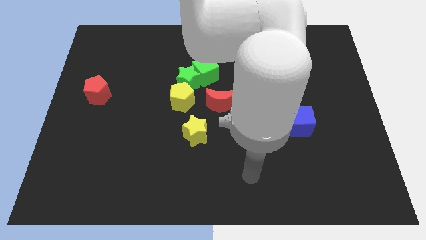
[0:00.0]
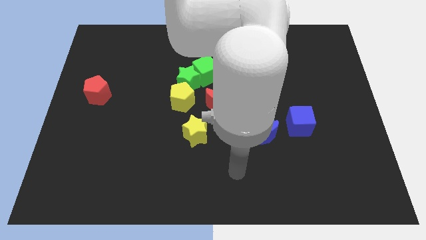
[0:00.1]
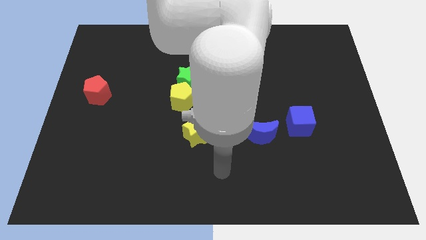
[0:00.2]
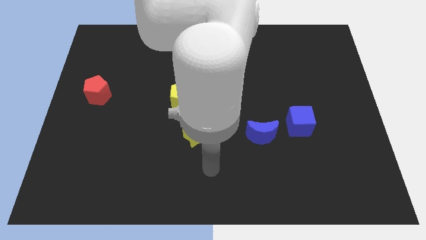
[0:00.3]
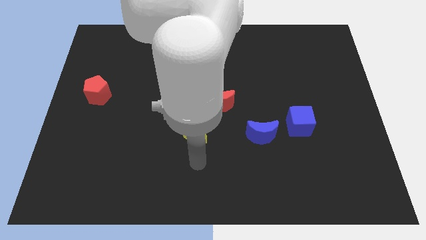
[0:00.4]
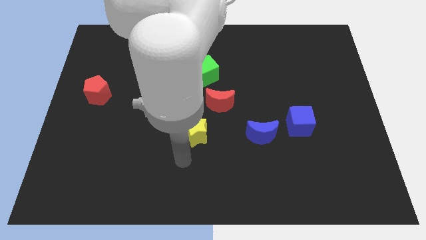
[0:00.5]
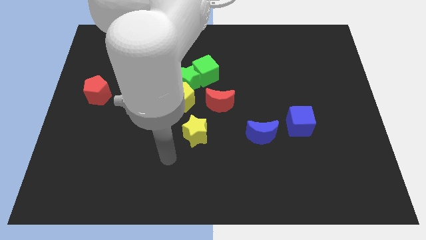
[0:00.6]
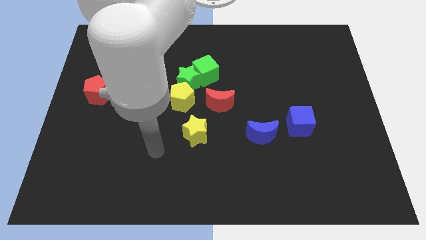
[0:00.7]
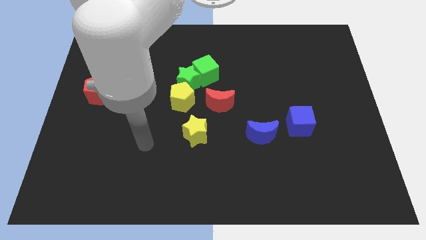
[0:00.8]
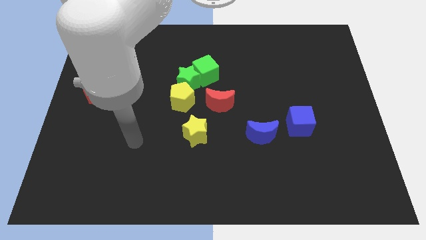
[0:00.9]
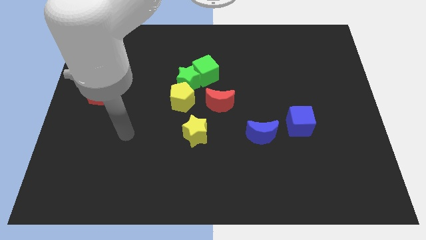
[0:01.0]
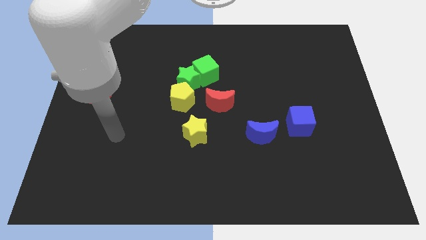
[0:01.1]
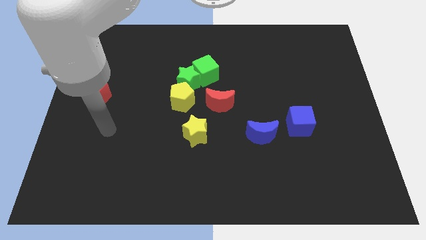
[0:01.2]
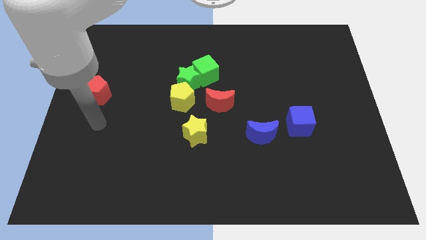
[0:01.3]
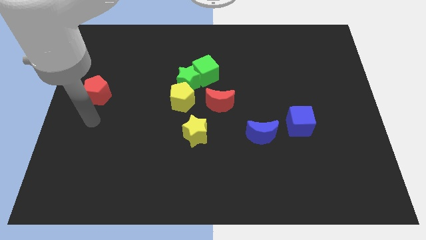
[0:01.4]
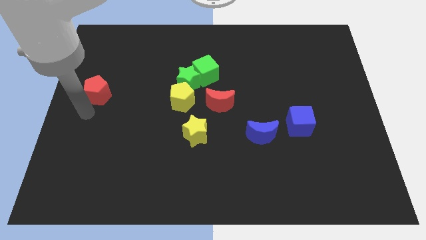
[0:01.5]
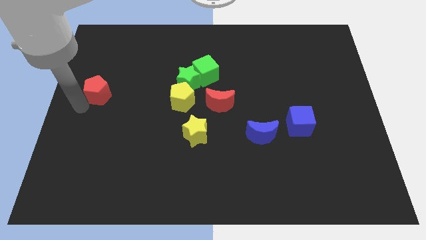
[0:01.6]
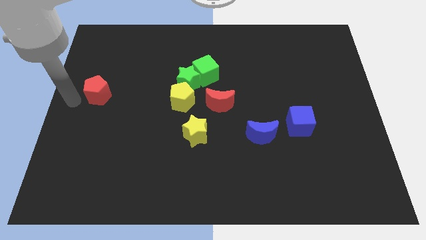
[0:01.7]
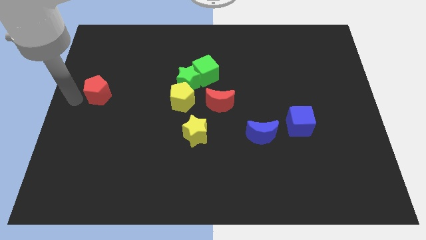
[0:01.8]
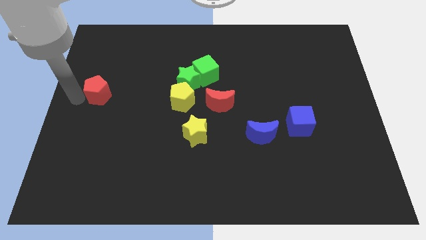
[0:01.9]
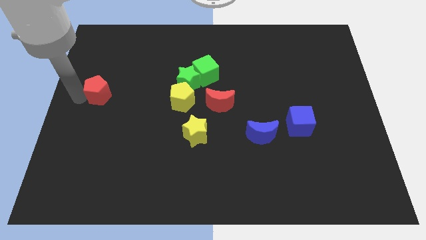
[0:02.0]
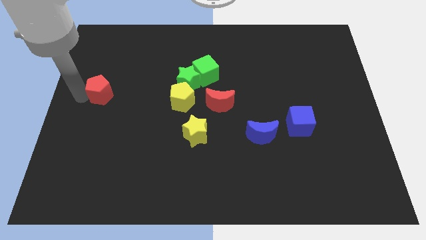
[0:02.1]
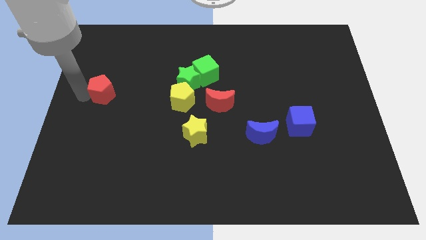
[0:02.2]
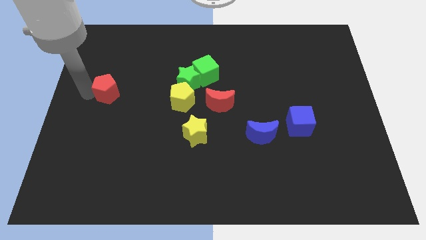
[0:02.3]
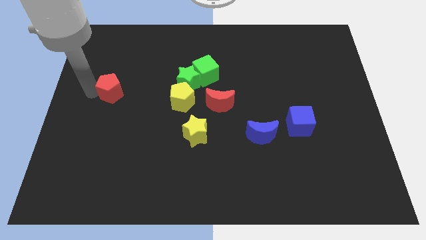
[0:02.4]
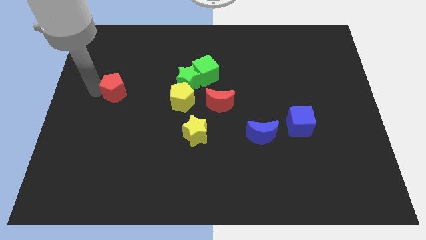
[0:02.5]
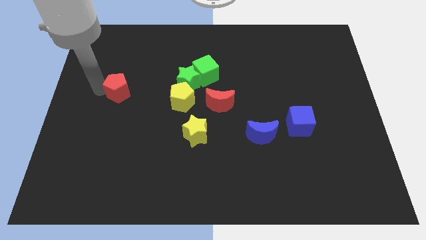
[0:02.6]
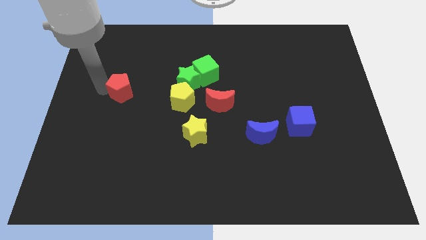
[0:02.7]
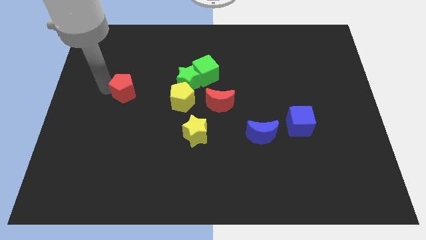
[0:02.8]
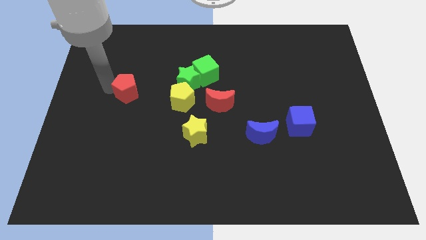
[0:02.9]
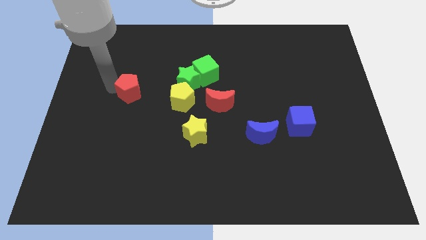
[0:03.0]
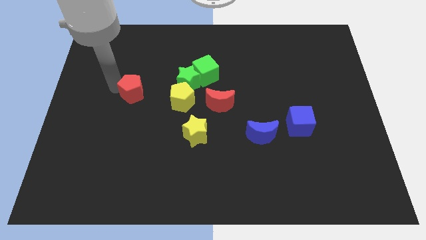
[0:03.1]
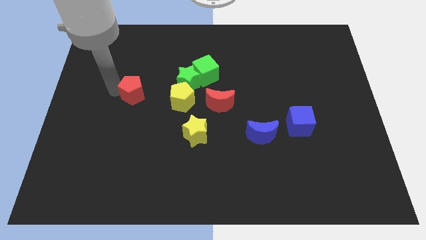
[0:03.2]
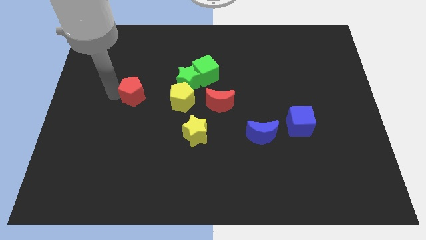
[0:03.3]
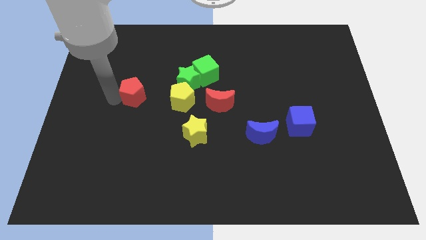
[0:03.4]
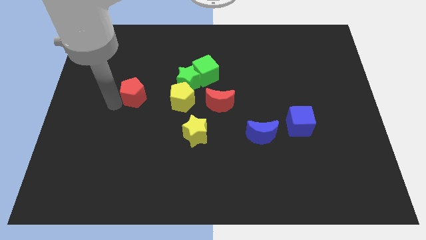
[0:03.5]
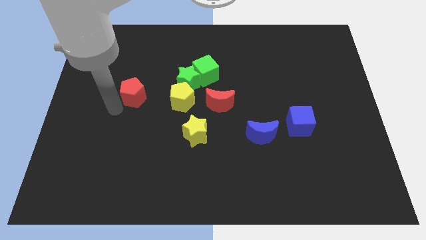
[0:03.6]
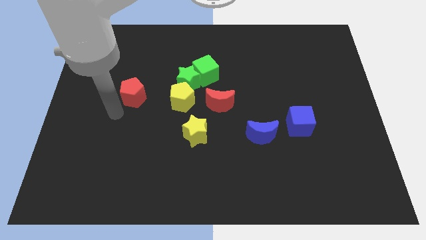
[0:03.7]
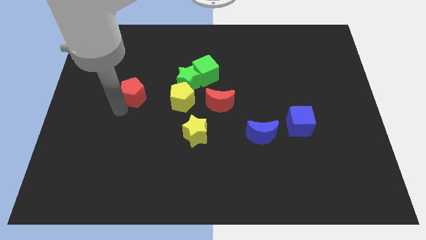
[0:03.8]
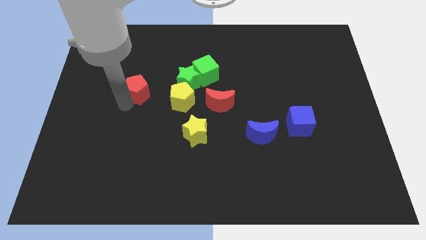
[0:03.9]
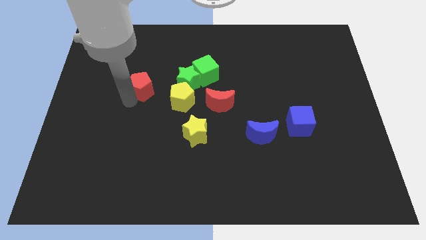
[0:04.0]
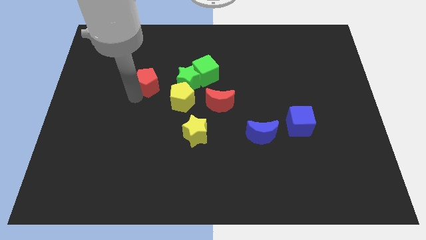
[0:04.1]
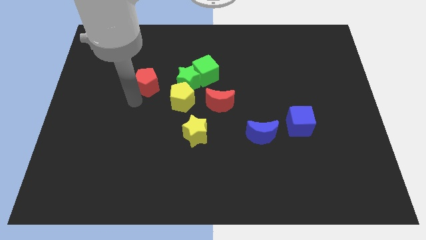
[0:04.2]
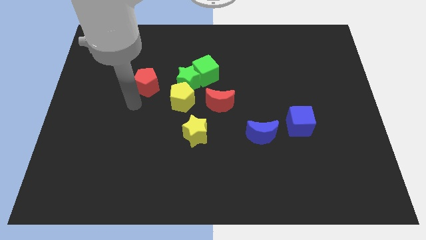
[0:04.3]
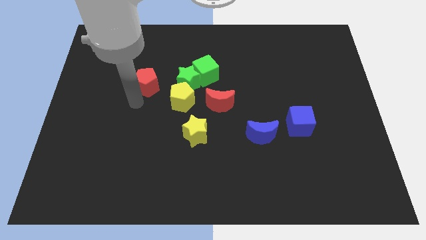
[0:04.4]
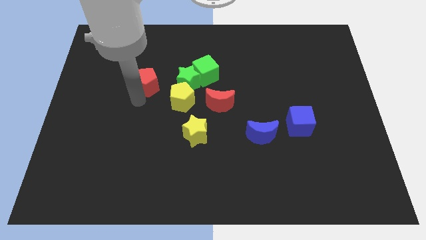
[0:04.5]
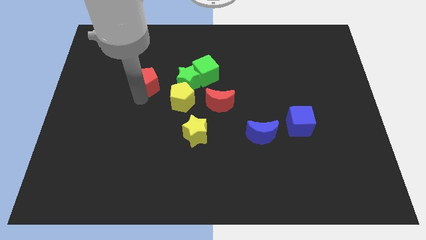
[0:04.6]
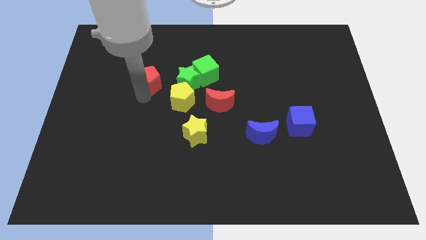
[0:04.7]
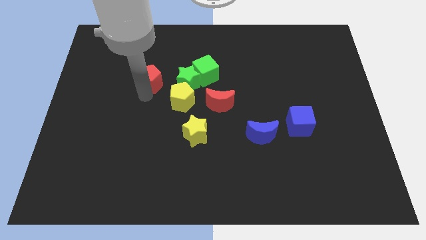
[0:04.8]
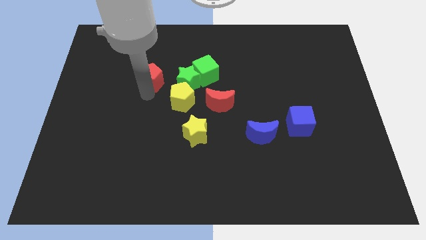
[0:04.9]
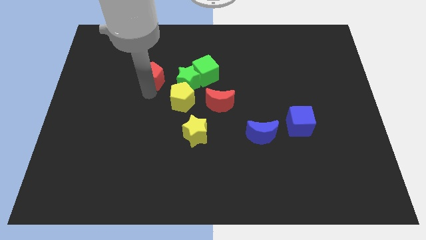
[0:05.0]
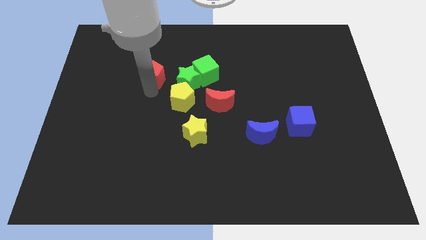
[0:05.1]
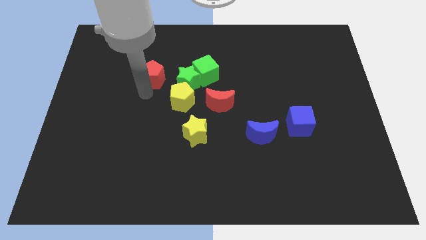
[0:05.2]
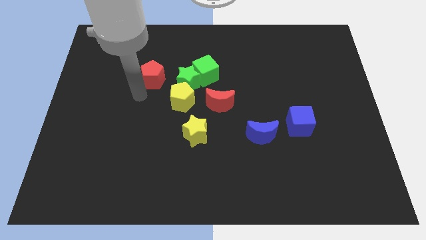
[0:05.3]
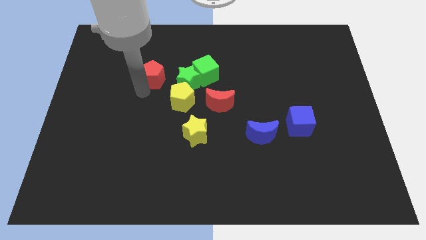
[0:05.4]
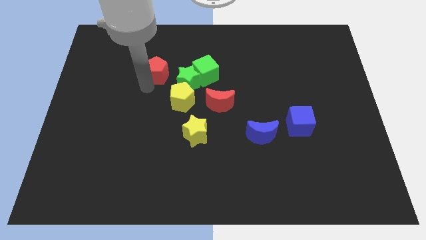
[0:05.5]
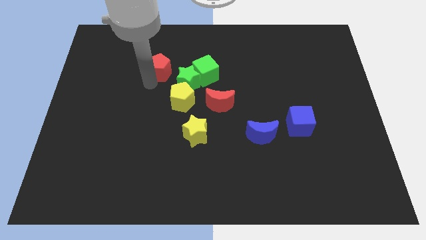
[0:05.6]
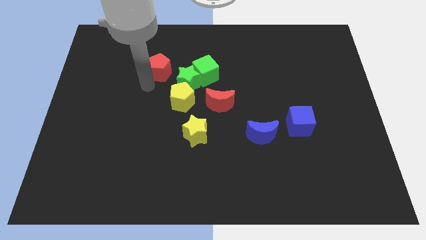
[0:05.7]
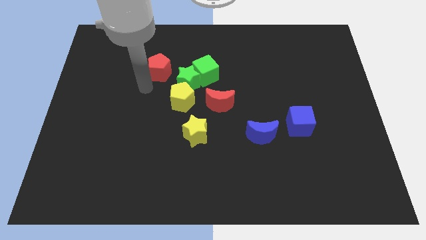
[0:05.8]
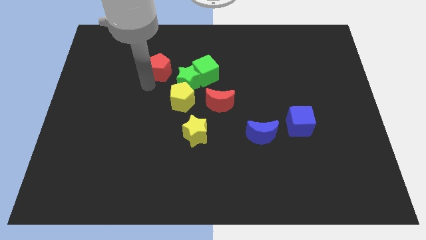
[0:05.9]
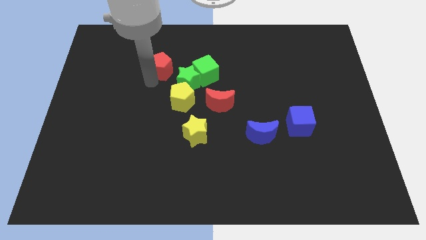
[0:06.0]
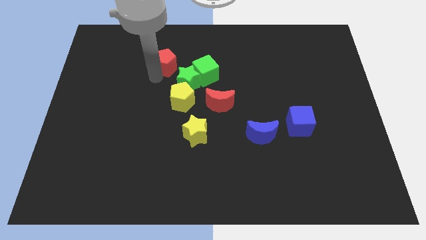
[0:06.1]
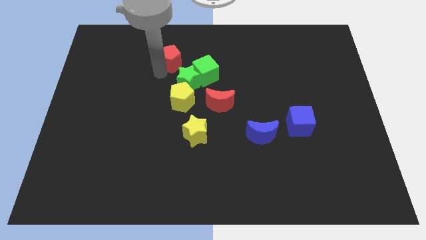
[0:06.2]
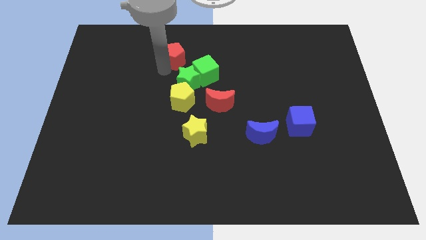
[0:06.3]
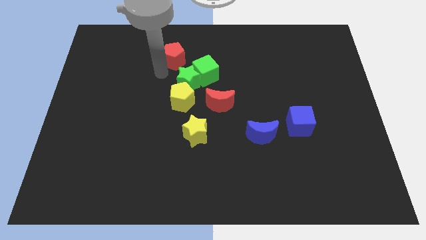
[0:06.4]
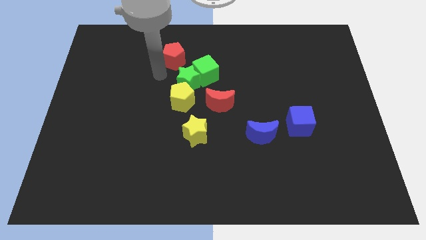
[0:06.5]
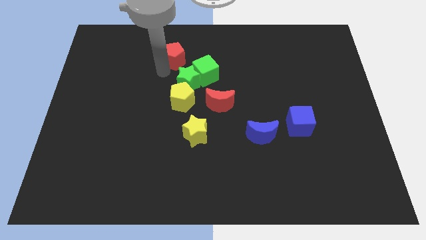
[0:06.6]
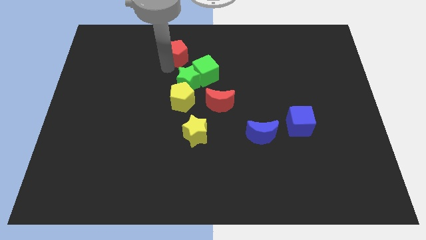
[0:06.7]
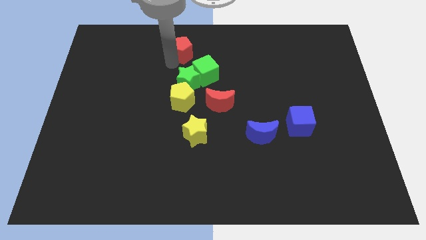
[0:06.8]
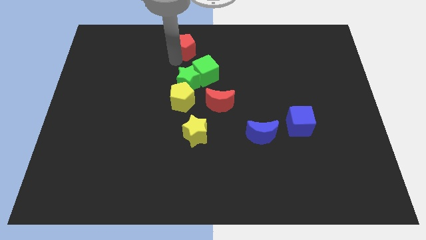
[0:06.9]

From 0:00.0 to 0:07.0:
move the red pentagon to the top side
